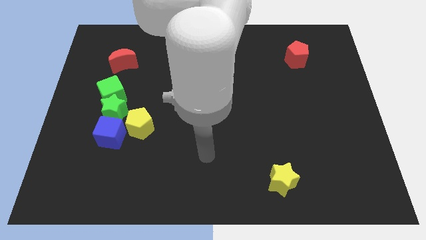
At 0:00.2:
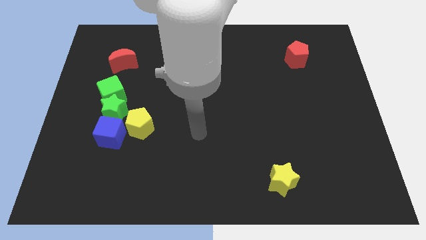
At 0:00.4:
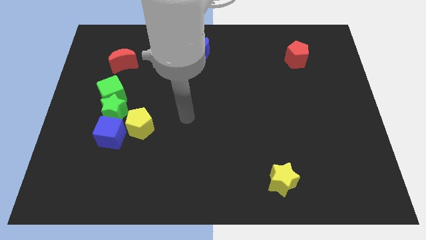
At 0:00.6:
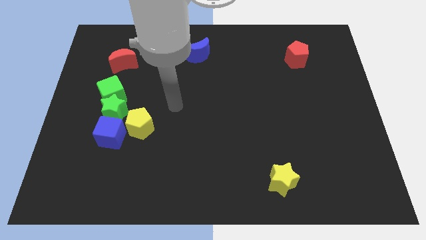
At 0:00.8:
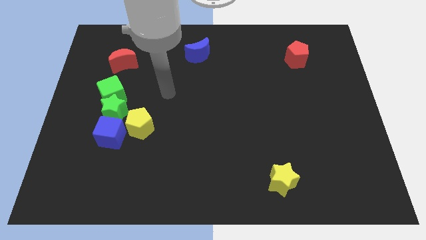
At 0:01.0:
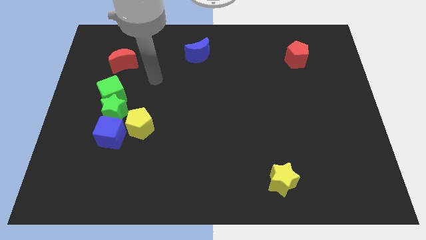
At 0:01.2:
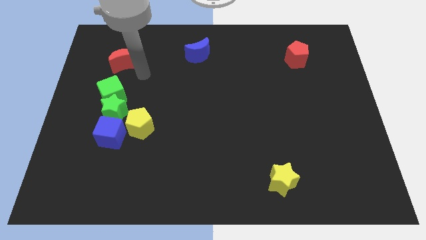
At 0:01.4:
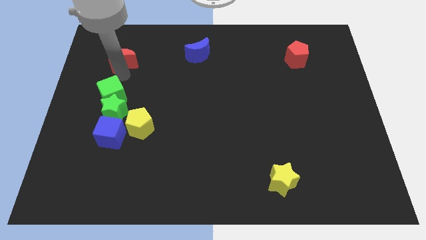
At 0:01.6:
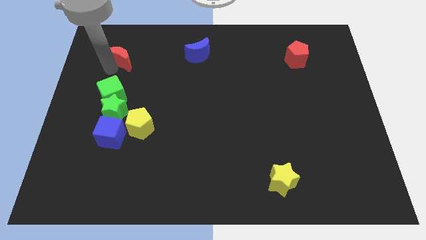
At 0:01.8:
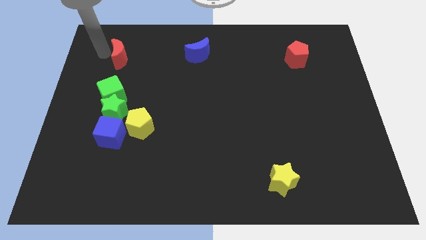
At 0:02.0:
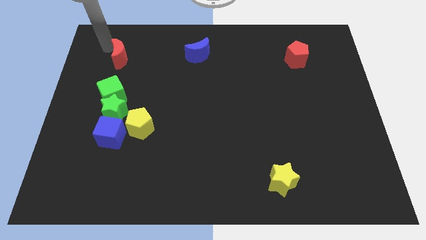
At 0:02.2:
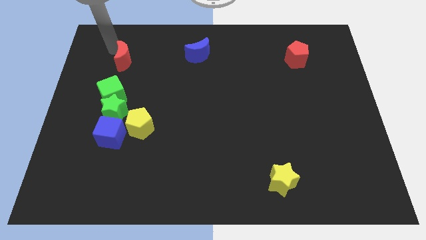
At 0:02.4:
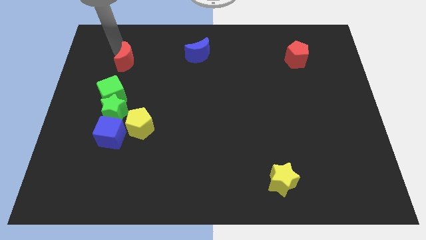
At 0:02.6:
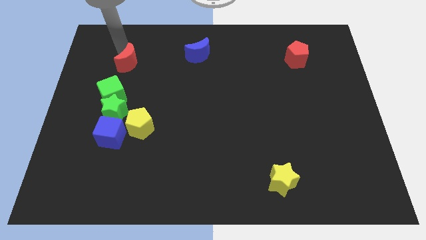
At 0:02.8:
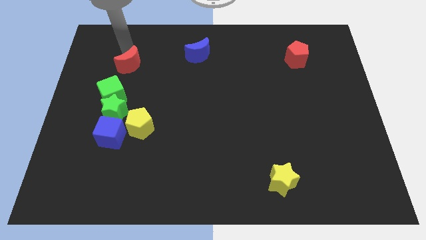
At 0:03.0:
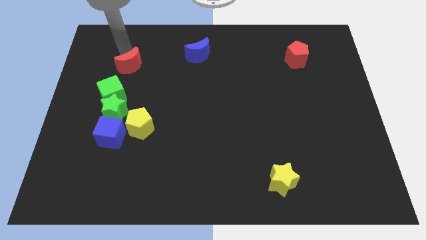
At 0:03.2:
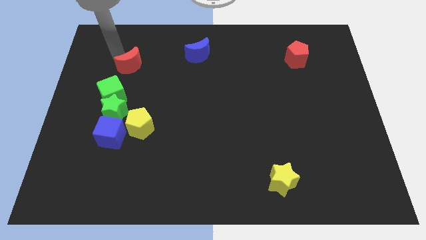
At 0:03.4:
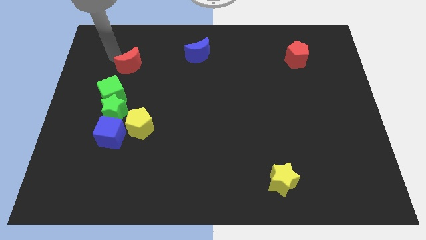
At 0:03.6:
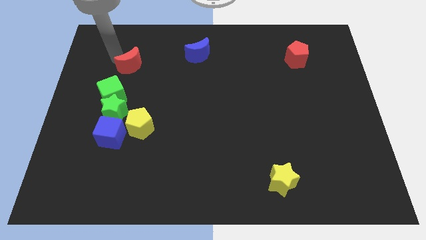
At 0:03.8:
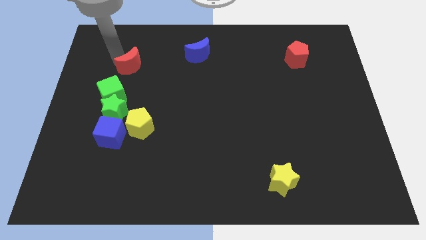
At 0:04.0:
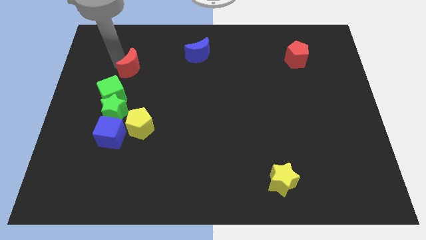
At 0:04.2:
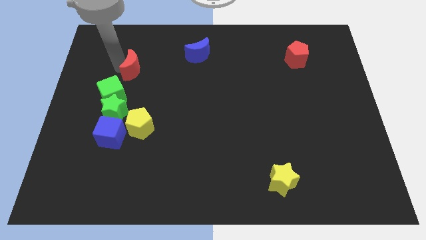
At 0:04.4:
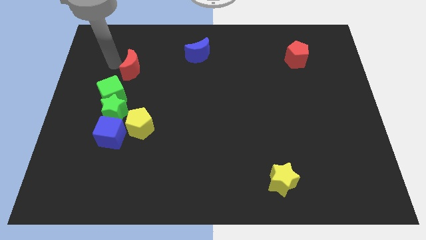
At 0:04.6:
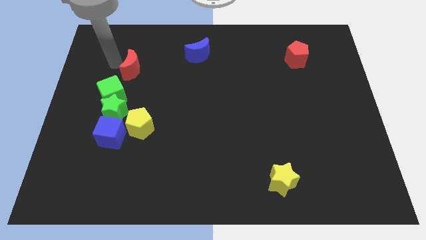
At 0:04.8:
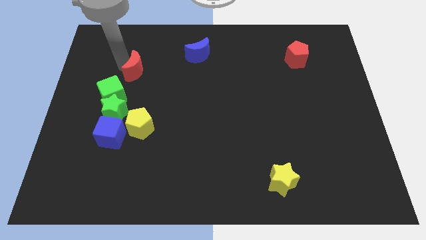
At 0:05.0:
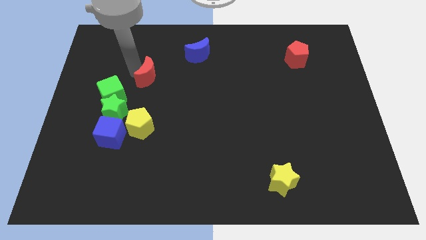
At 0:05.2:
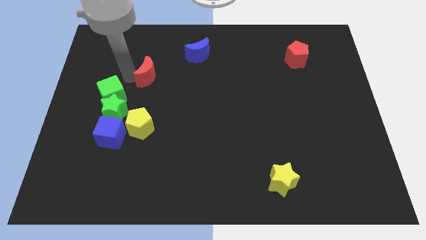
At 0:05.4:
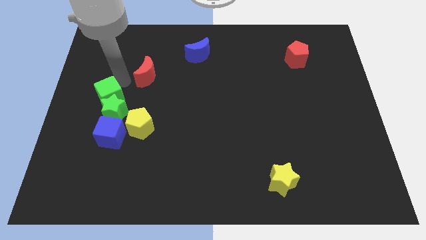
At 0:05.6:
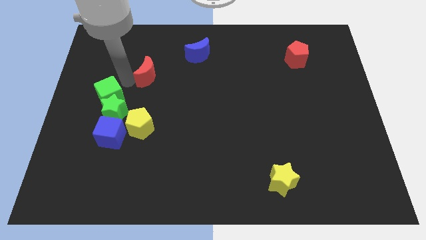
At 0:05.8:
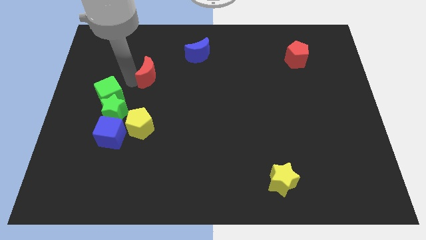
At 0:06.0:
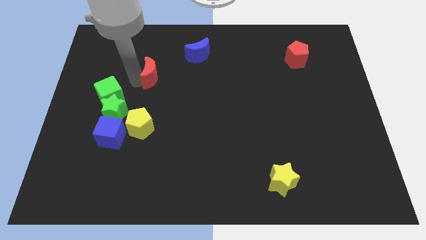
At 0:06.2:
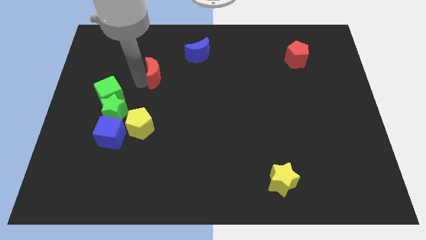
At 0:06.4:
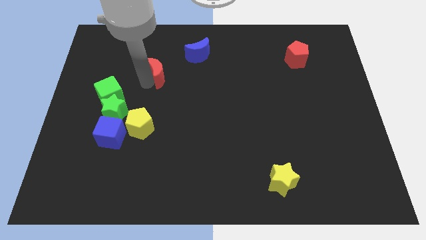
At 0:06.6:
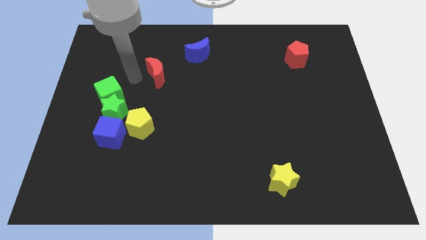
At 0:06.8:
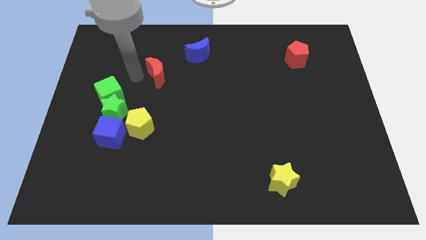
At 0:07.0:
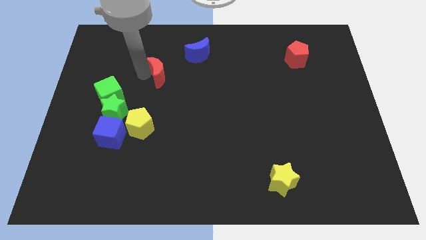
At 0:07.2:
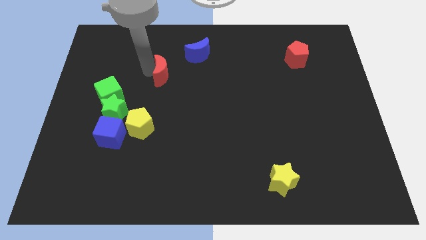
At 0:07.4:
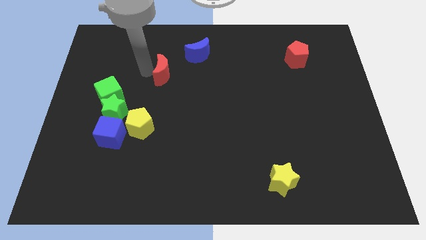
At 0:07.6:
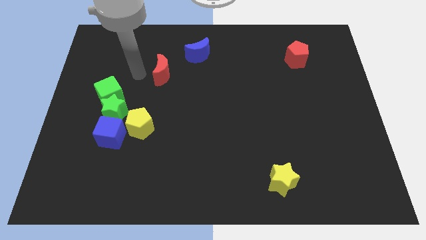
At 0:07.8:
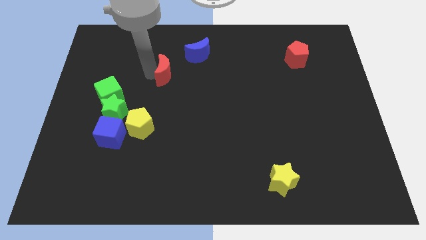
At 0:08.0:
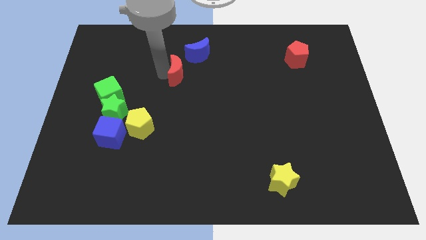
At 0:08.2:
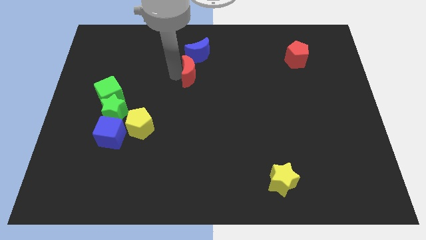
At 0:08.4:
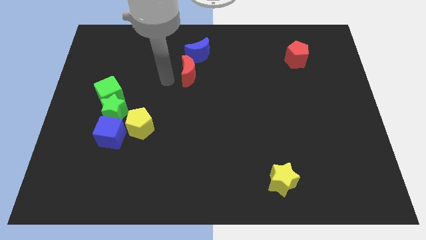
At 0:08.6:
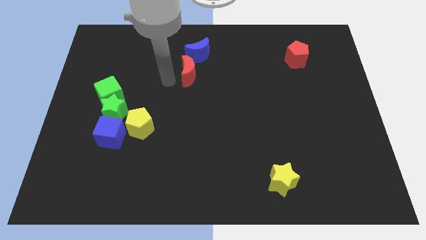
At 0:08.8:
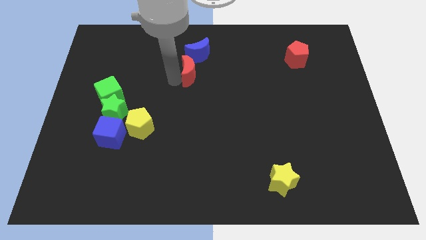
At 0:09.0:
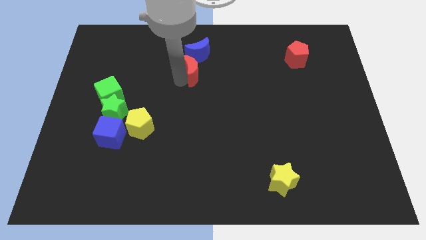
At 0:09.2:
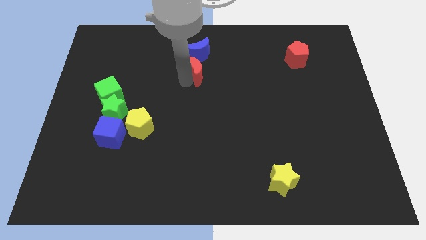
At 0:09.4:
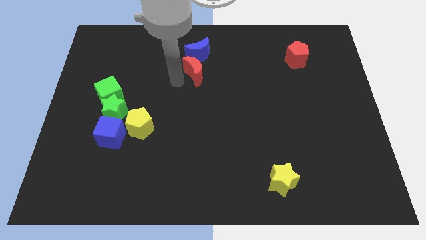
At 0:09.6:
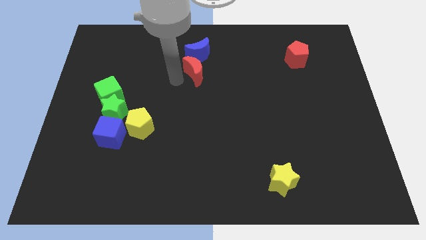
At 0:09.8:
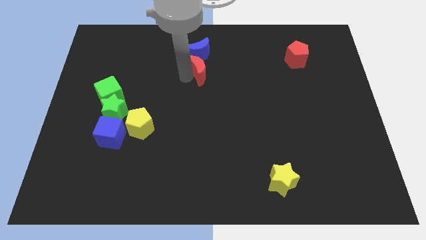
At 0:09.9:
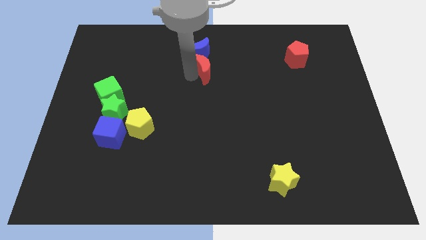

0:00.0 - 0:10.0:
slide the red moon right

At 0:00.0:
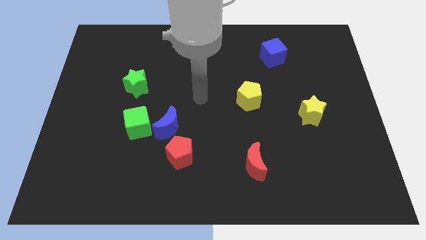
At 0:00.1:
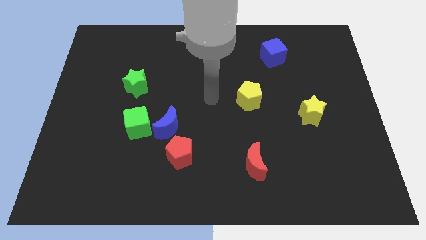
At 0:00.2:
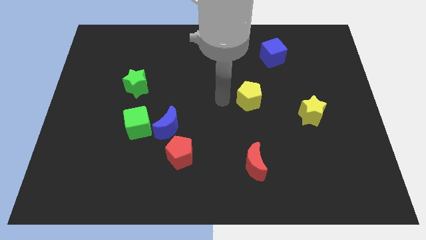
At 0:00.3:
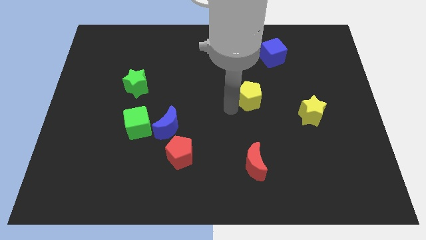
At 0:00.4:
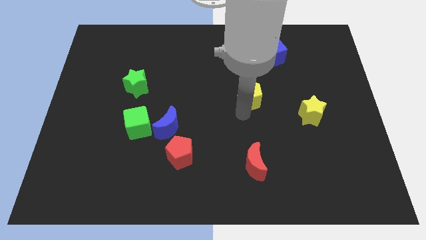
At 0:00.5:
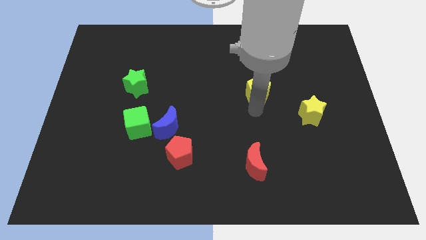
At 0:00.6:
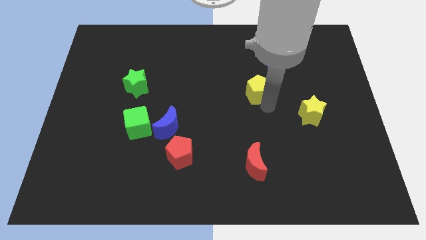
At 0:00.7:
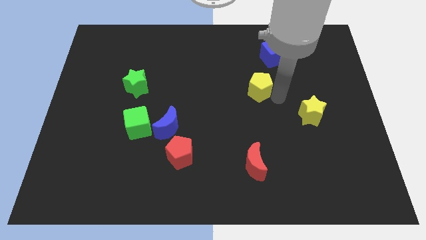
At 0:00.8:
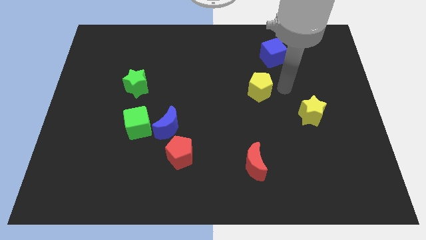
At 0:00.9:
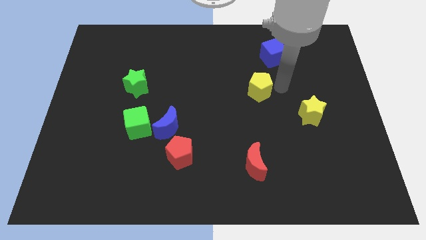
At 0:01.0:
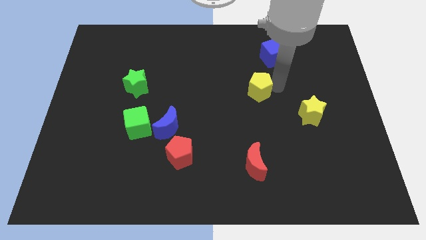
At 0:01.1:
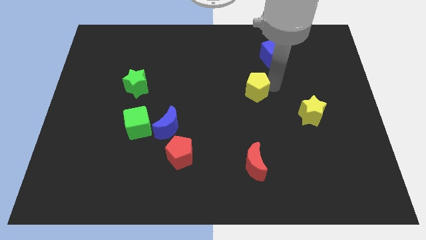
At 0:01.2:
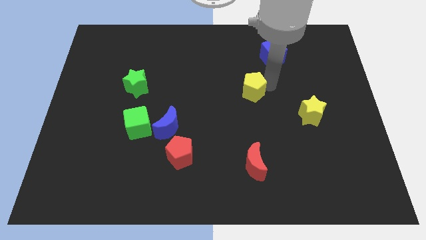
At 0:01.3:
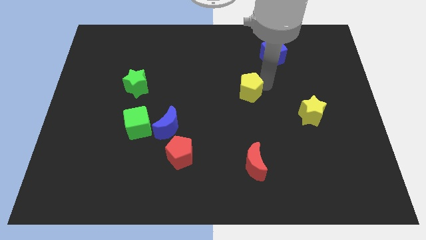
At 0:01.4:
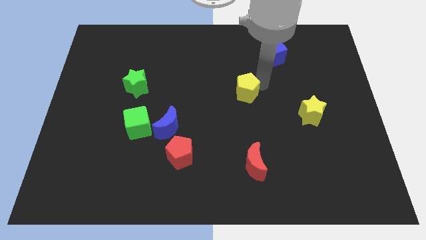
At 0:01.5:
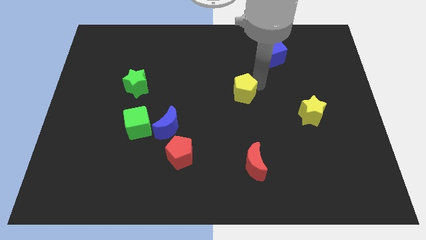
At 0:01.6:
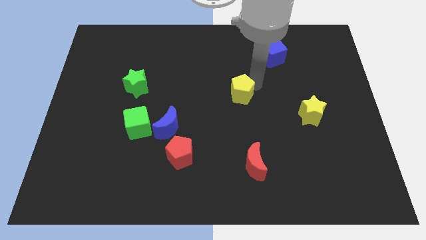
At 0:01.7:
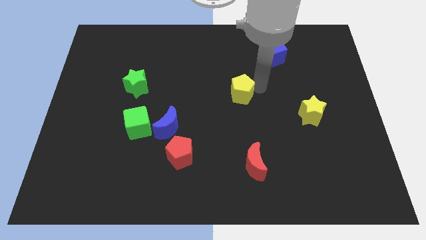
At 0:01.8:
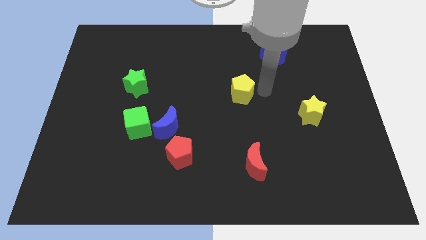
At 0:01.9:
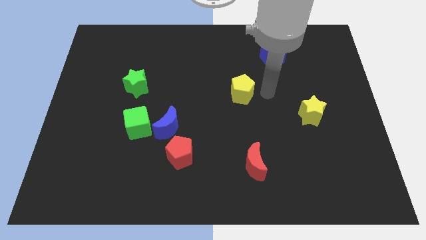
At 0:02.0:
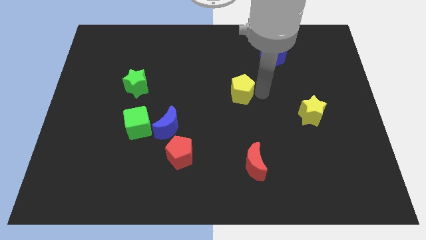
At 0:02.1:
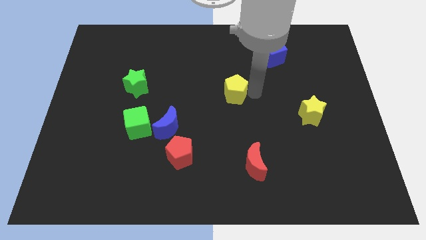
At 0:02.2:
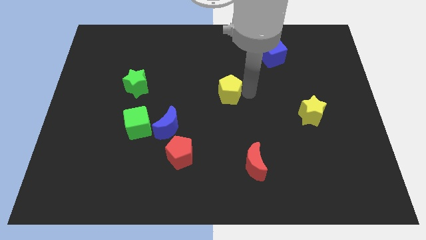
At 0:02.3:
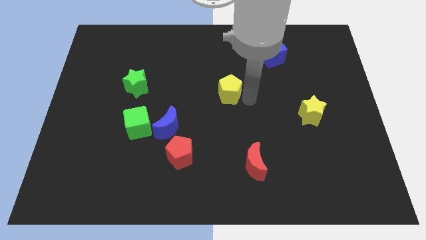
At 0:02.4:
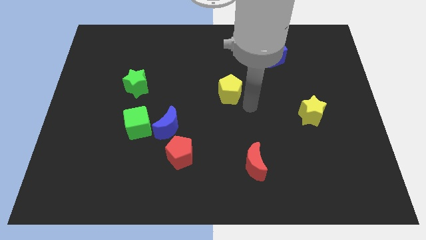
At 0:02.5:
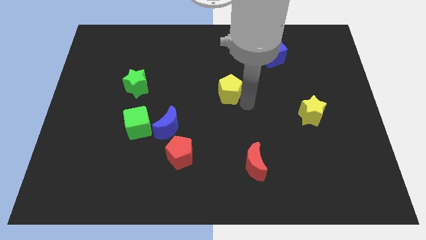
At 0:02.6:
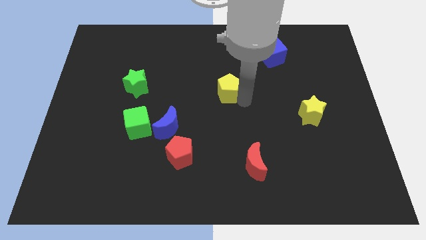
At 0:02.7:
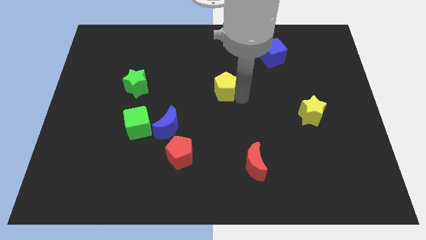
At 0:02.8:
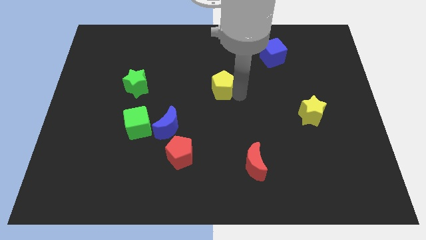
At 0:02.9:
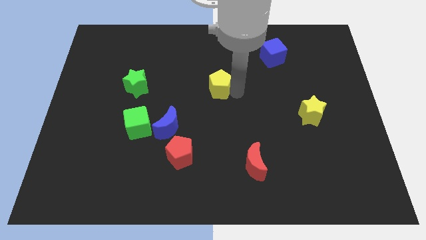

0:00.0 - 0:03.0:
slightly push the yellow pentagon diagonally up and to the left
